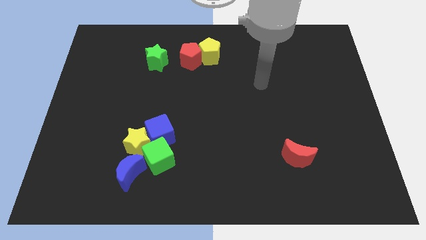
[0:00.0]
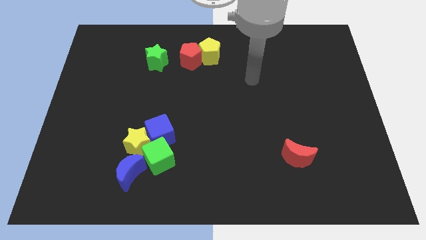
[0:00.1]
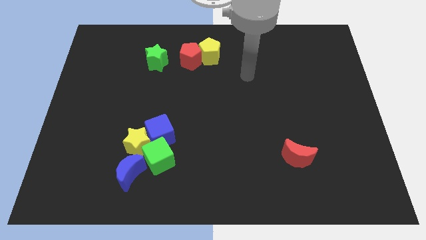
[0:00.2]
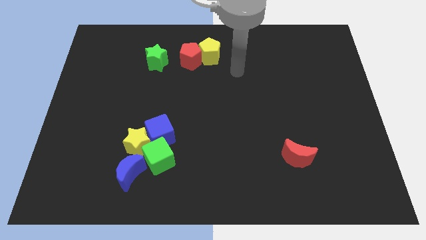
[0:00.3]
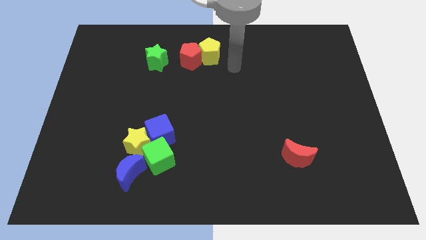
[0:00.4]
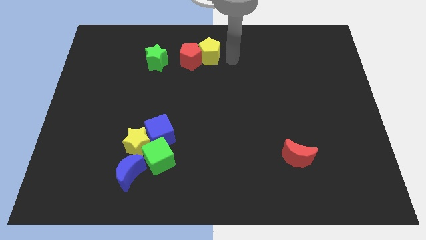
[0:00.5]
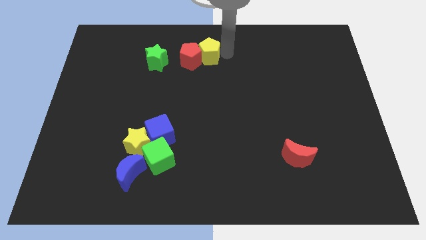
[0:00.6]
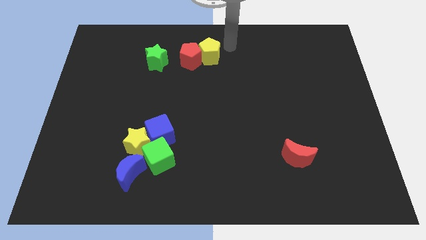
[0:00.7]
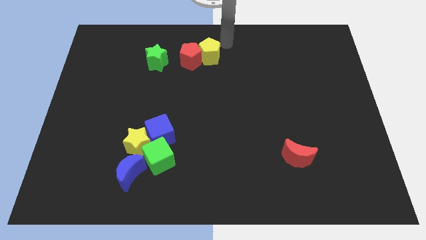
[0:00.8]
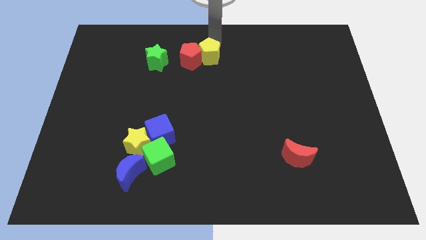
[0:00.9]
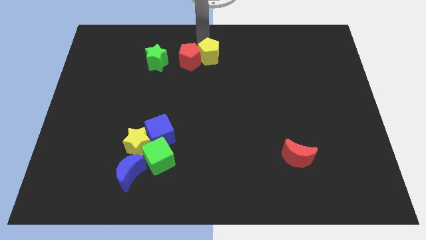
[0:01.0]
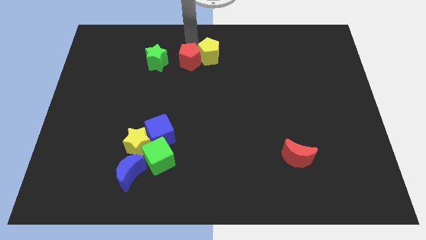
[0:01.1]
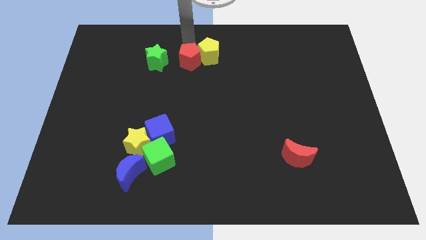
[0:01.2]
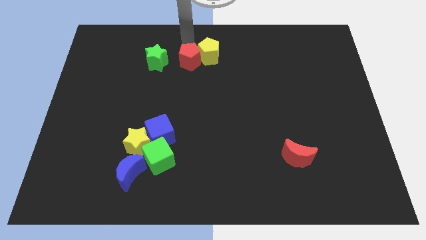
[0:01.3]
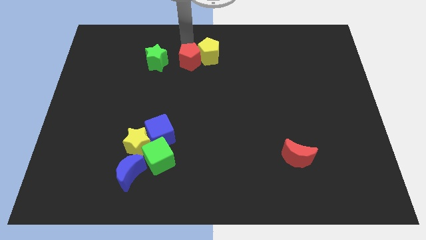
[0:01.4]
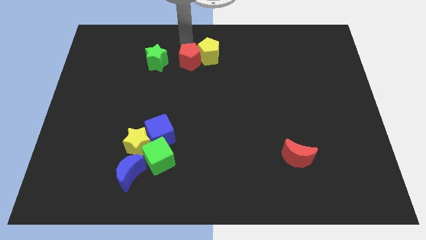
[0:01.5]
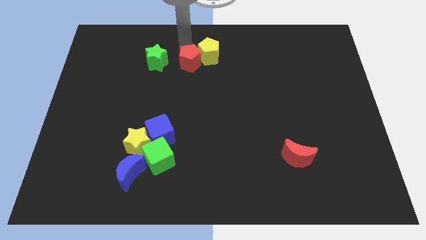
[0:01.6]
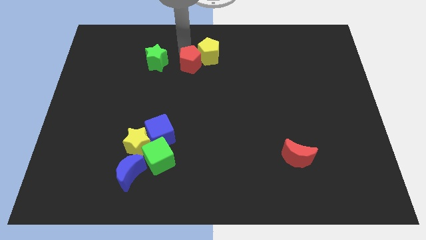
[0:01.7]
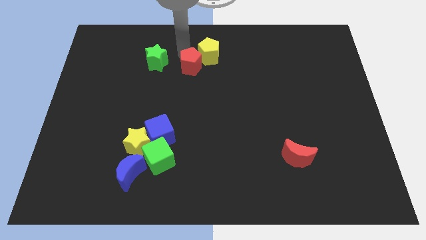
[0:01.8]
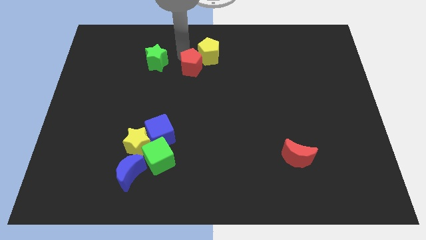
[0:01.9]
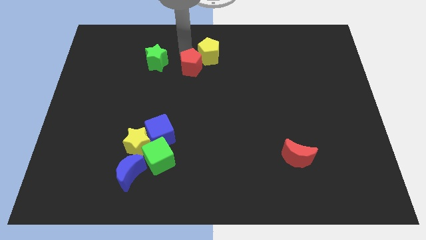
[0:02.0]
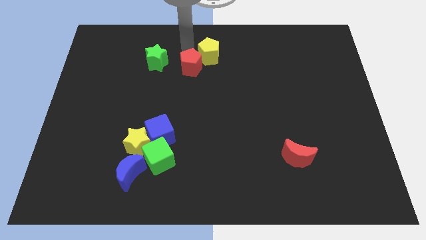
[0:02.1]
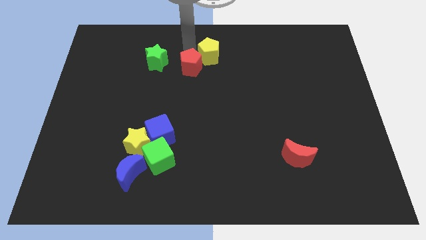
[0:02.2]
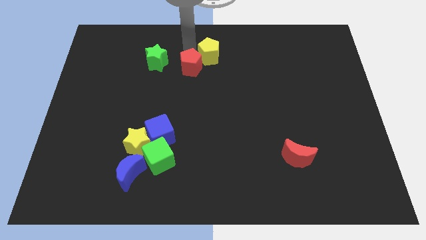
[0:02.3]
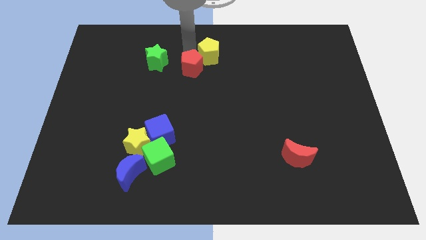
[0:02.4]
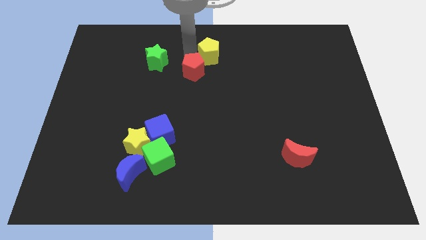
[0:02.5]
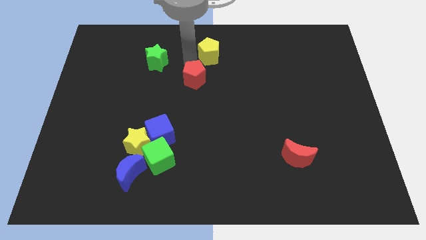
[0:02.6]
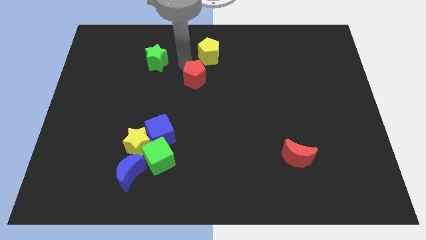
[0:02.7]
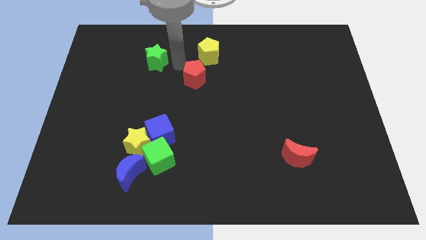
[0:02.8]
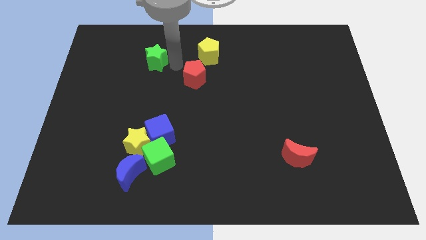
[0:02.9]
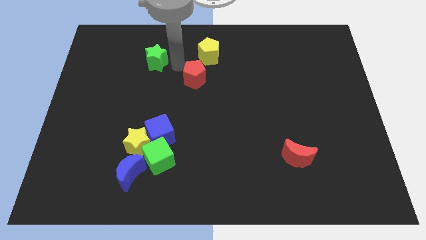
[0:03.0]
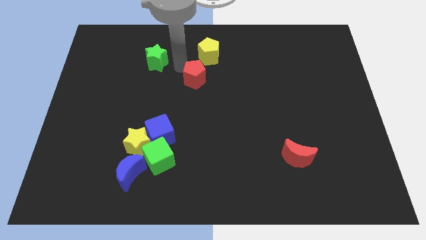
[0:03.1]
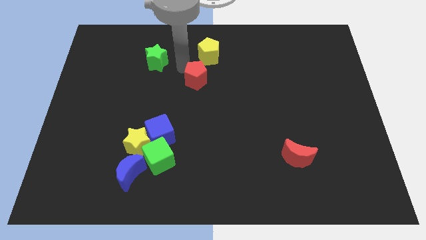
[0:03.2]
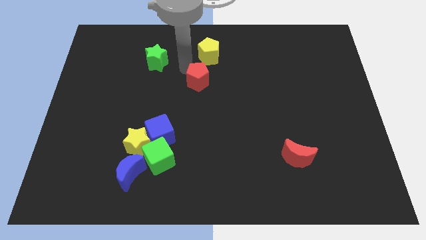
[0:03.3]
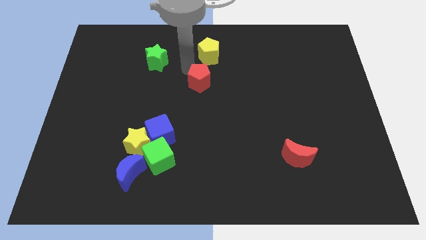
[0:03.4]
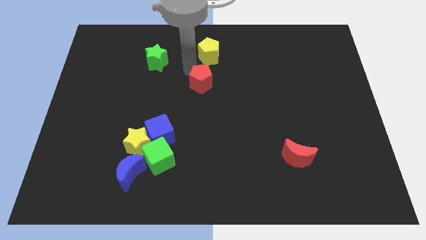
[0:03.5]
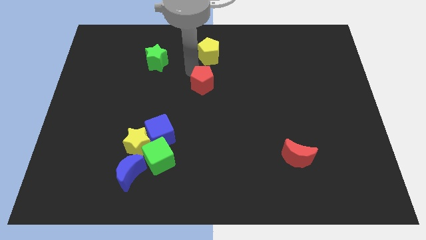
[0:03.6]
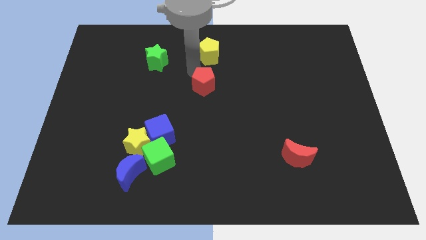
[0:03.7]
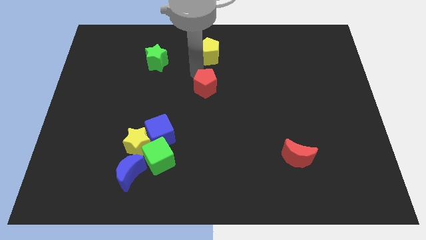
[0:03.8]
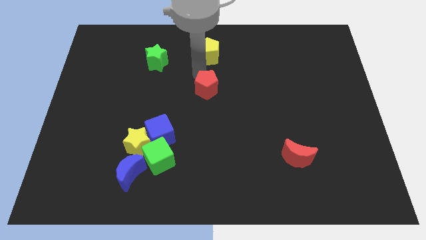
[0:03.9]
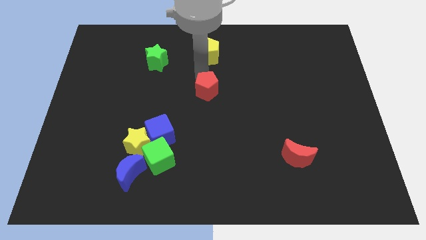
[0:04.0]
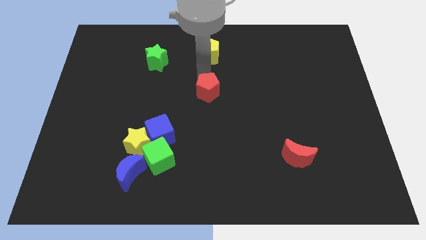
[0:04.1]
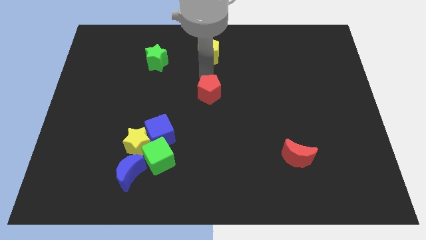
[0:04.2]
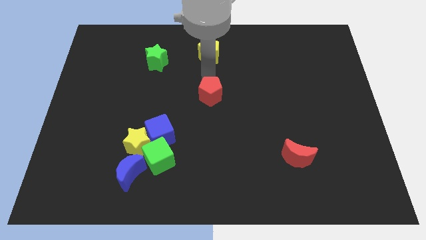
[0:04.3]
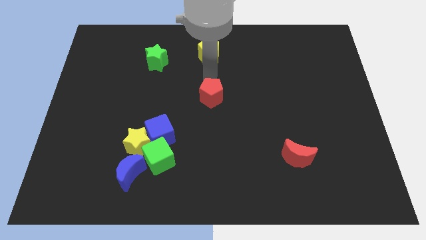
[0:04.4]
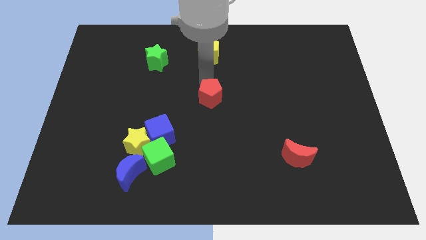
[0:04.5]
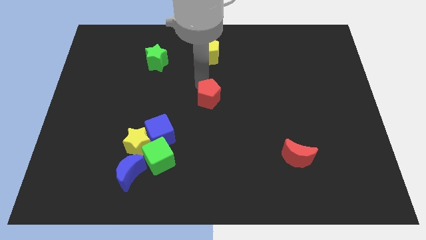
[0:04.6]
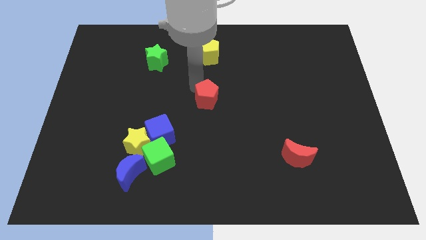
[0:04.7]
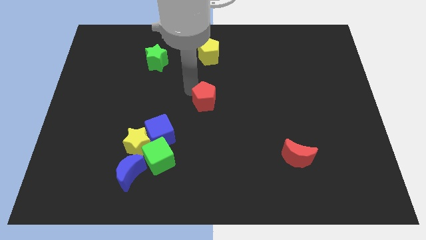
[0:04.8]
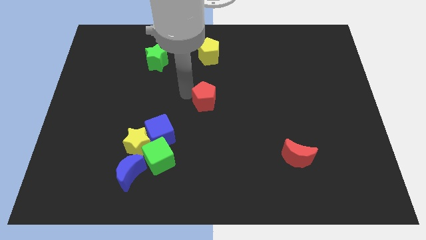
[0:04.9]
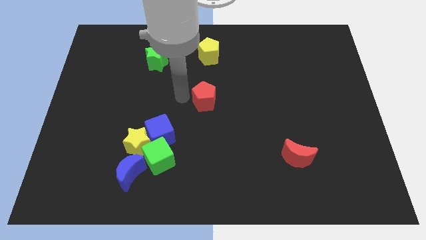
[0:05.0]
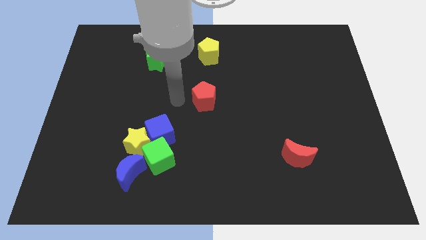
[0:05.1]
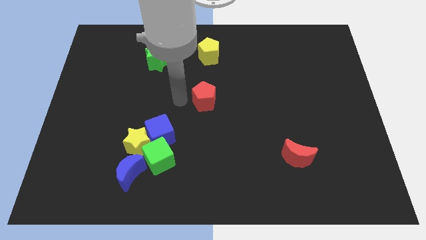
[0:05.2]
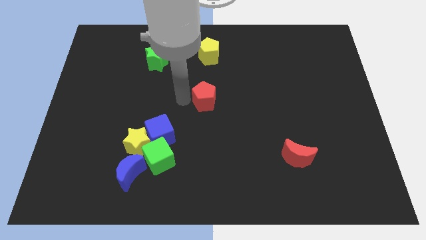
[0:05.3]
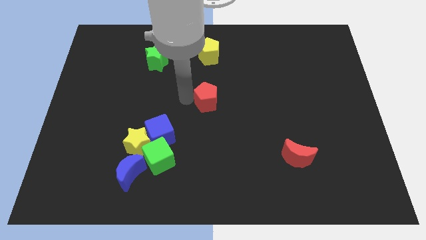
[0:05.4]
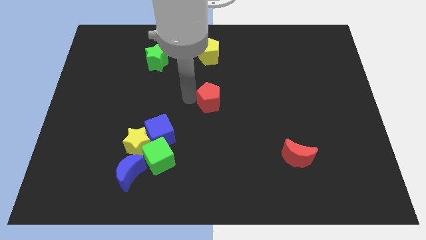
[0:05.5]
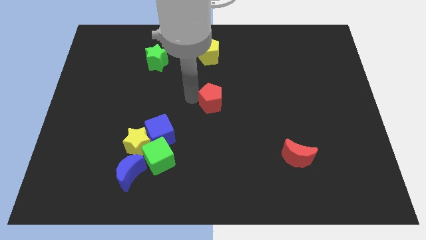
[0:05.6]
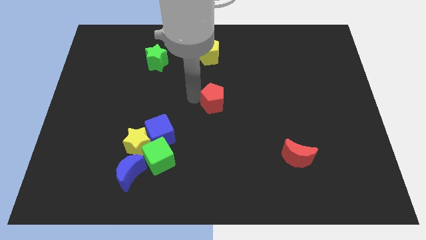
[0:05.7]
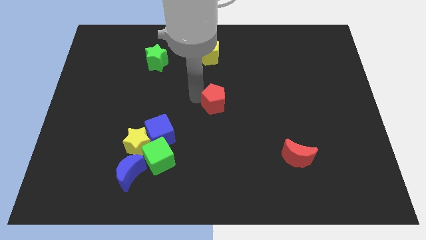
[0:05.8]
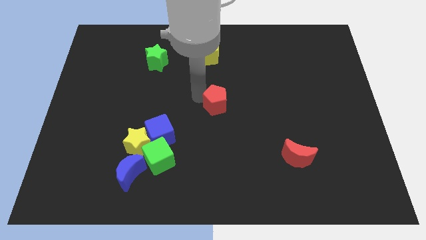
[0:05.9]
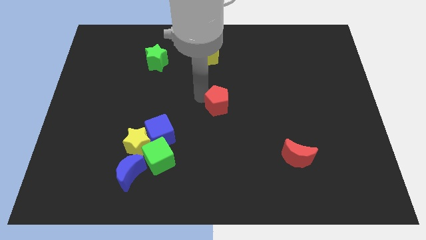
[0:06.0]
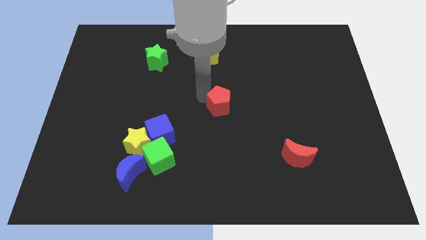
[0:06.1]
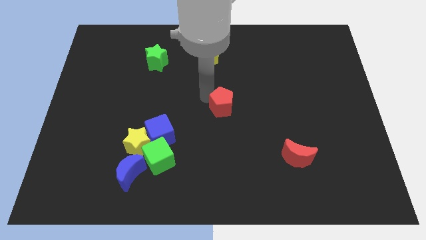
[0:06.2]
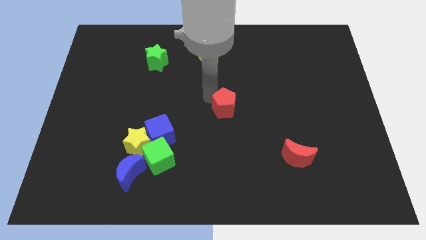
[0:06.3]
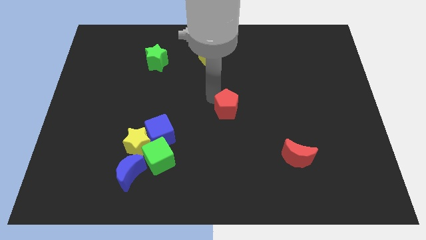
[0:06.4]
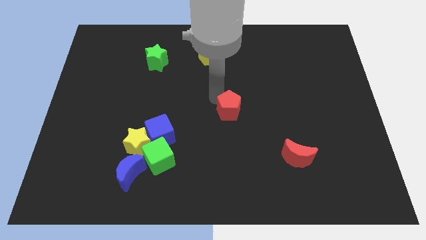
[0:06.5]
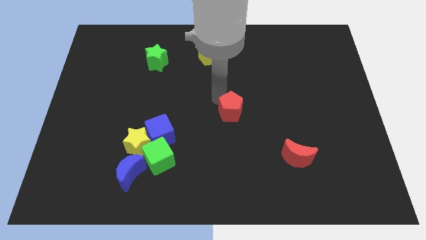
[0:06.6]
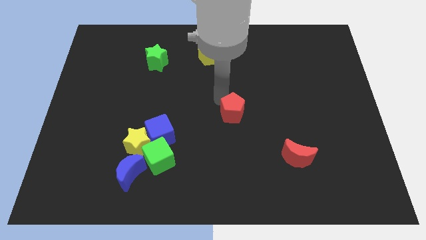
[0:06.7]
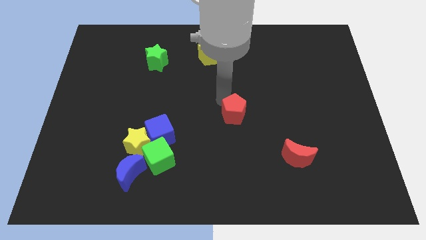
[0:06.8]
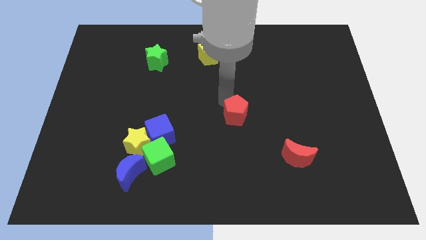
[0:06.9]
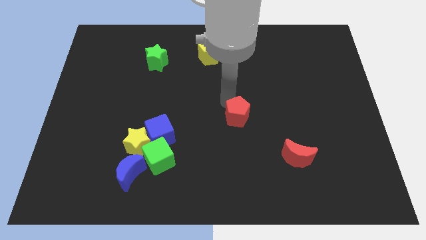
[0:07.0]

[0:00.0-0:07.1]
move the red pentagon down and then right

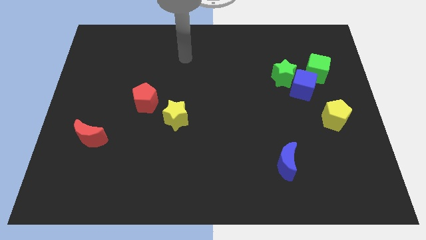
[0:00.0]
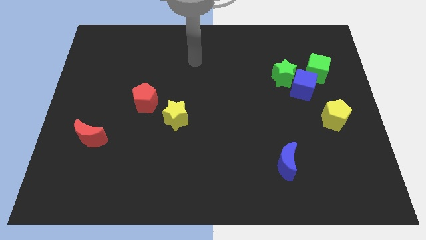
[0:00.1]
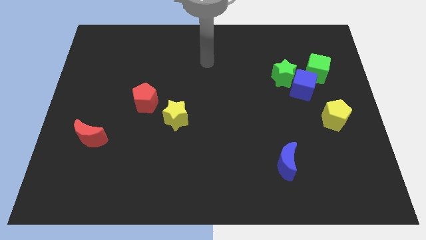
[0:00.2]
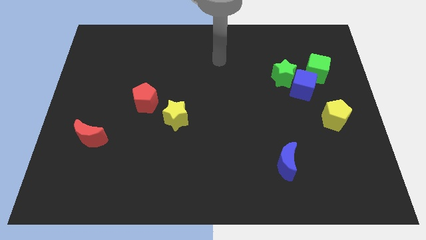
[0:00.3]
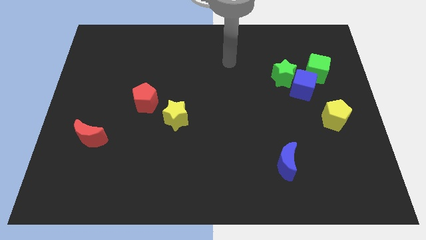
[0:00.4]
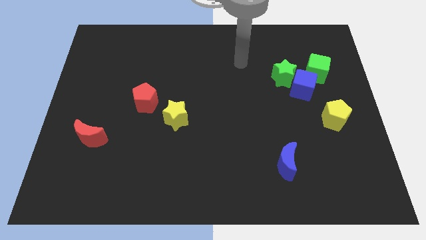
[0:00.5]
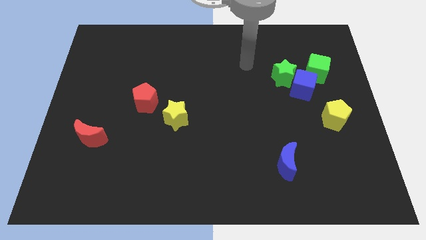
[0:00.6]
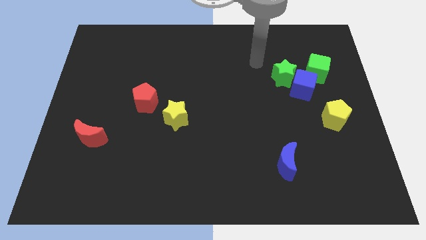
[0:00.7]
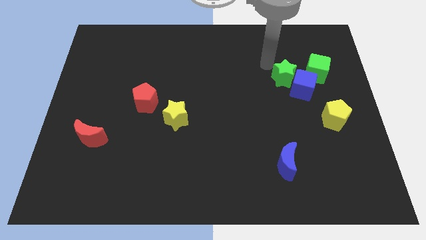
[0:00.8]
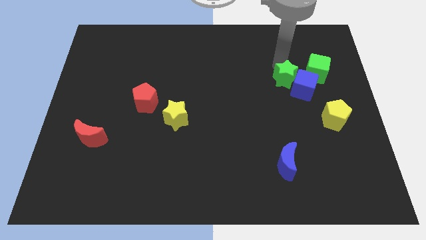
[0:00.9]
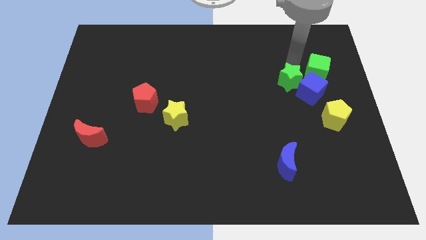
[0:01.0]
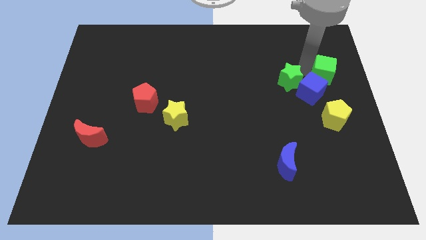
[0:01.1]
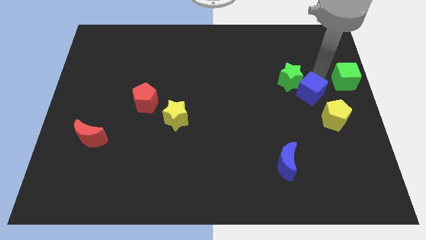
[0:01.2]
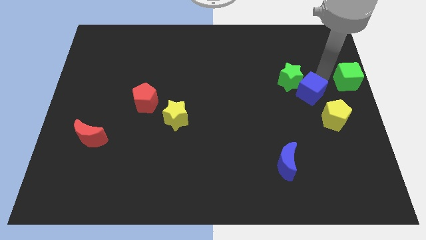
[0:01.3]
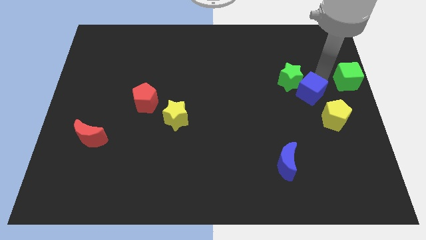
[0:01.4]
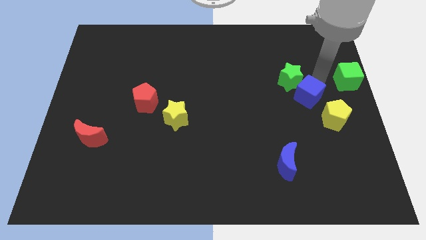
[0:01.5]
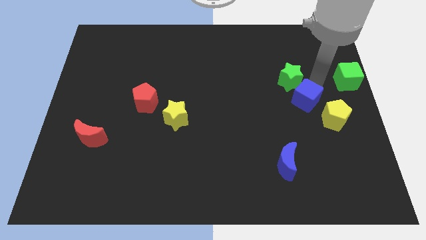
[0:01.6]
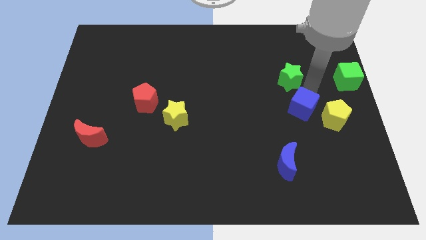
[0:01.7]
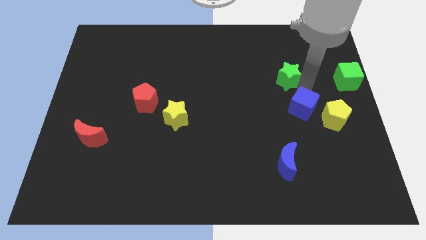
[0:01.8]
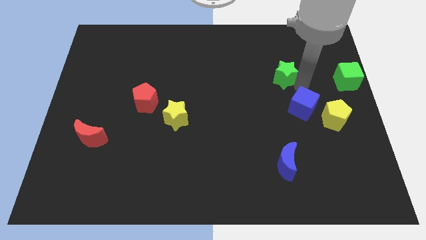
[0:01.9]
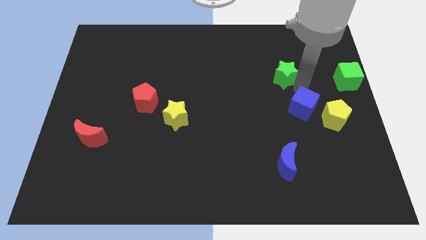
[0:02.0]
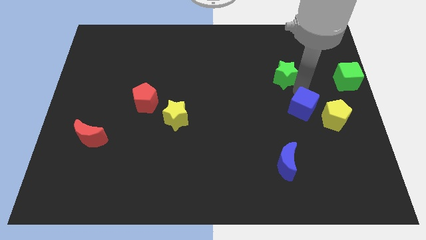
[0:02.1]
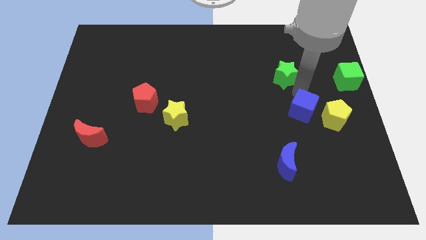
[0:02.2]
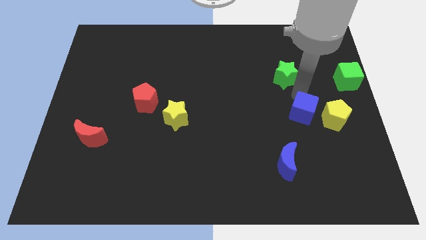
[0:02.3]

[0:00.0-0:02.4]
move the blue cube downwards slightly
